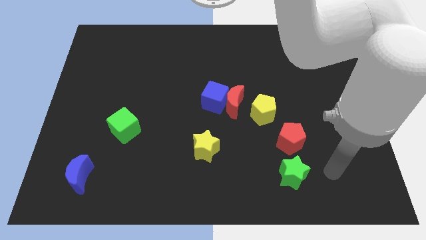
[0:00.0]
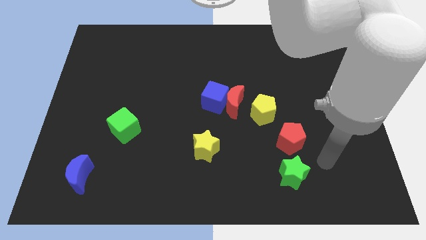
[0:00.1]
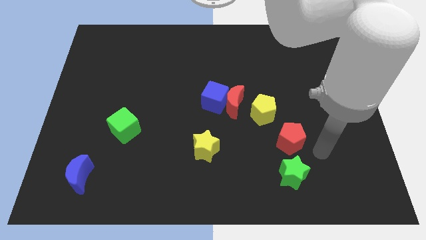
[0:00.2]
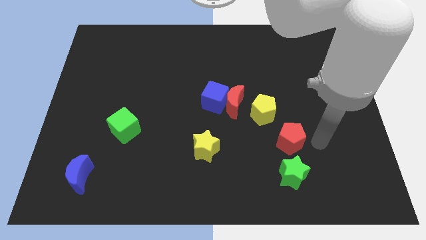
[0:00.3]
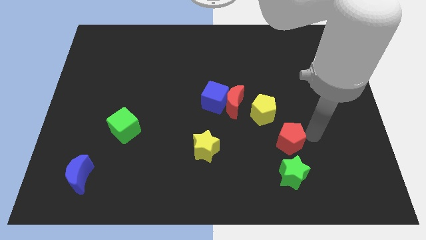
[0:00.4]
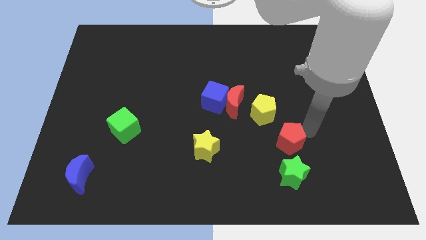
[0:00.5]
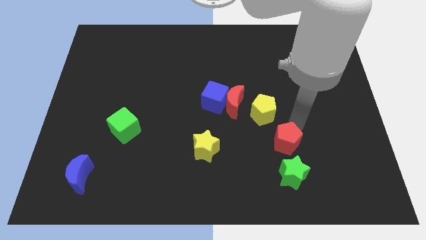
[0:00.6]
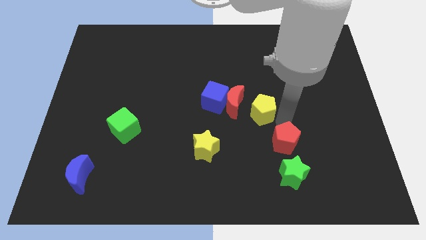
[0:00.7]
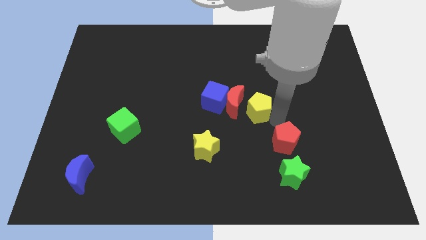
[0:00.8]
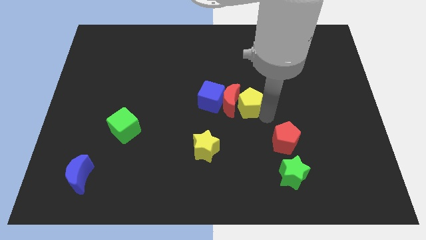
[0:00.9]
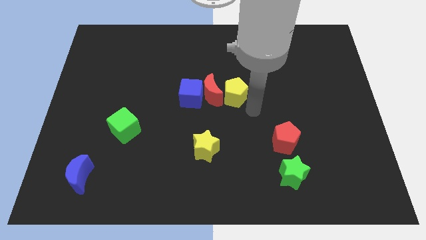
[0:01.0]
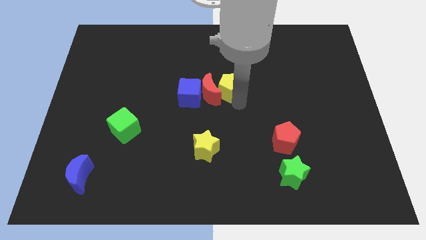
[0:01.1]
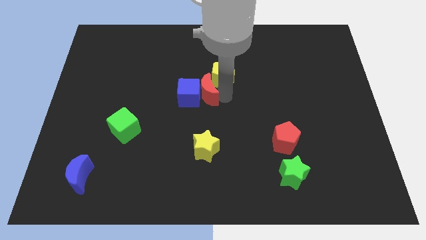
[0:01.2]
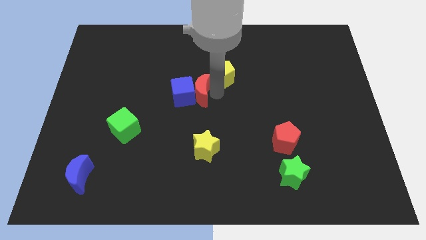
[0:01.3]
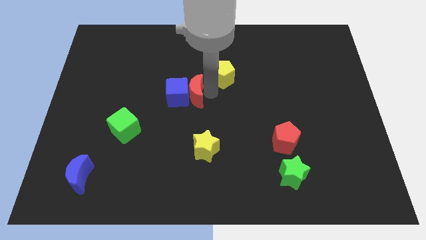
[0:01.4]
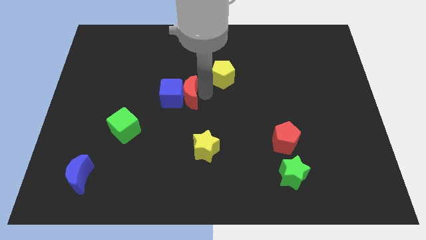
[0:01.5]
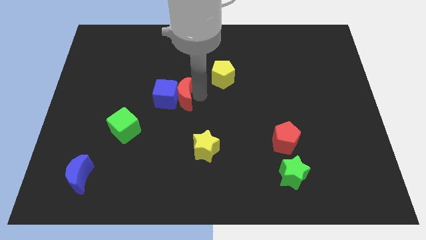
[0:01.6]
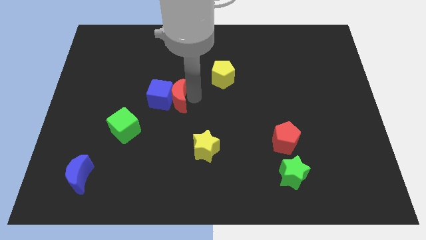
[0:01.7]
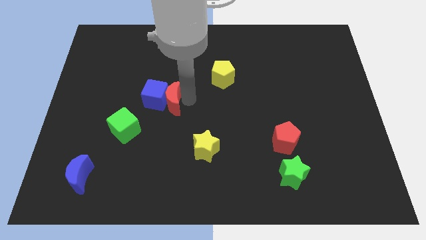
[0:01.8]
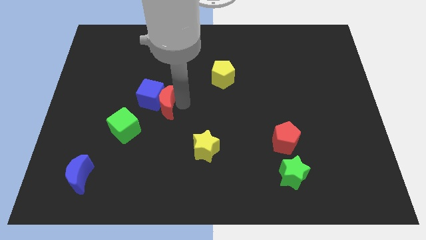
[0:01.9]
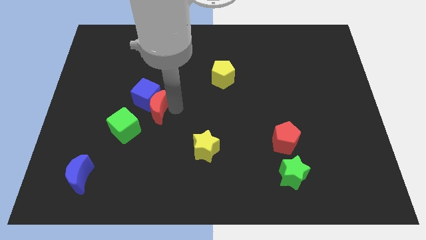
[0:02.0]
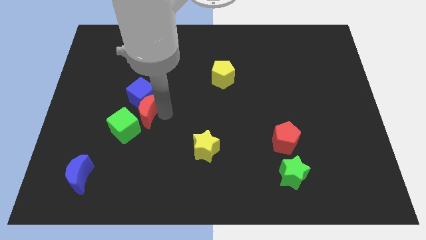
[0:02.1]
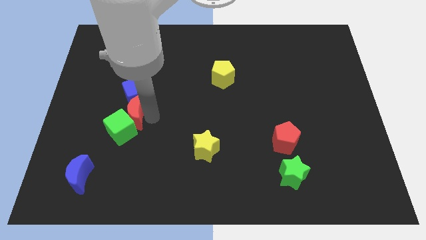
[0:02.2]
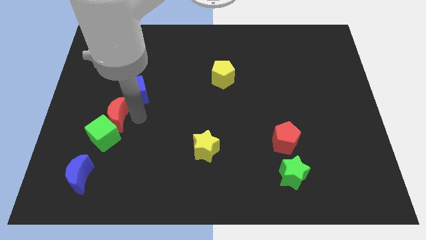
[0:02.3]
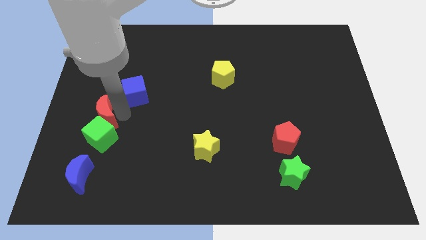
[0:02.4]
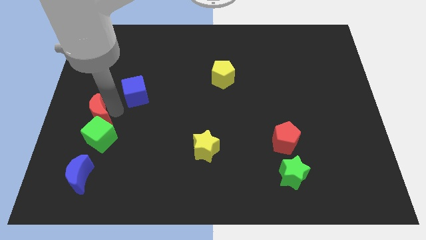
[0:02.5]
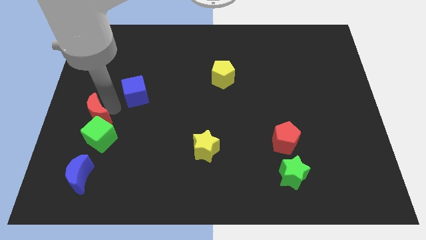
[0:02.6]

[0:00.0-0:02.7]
separate the blue cube from the red moon

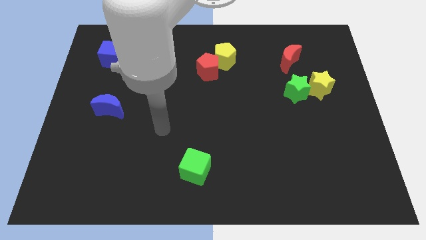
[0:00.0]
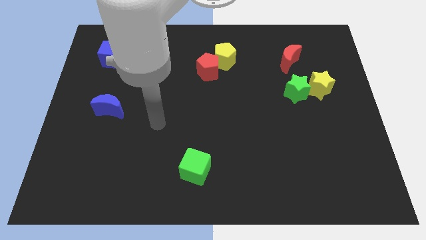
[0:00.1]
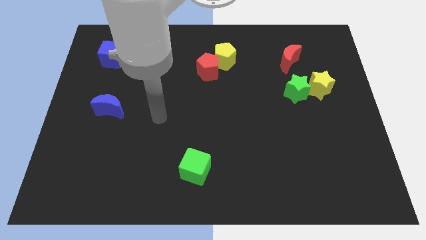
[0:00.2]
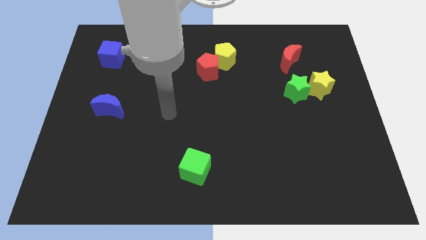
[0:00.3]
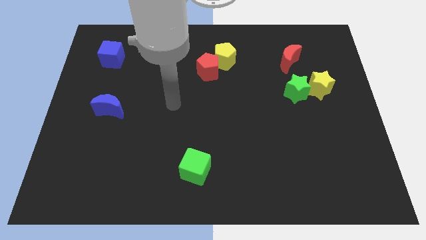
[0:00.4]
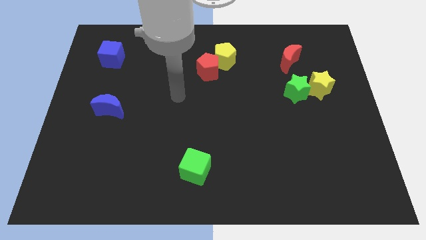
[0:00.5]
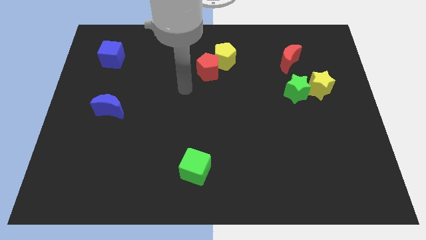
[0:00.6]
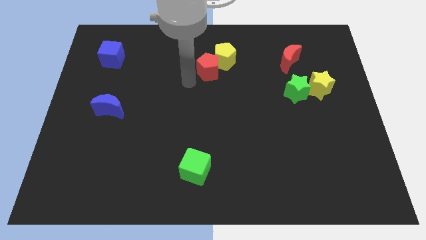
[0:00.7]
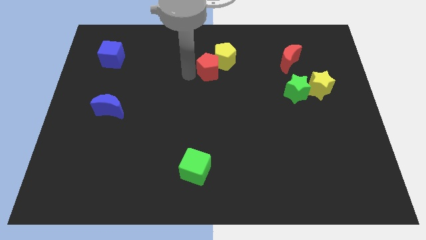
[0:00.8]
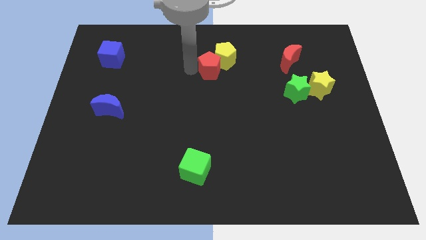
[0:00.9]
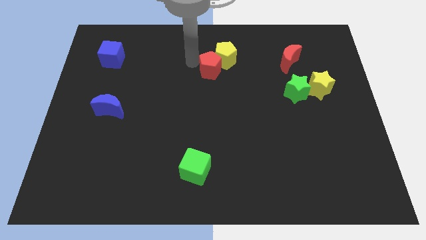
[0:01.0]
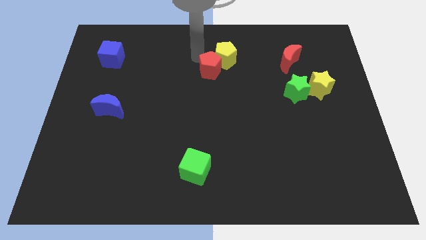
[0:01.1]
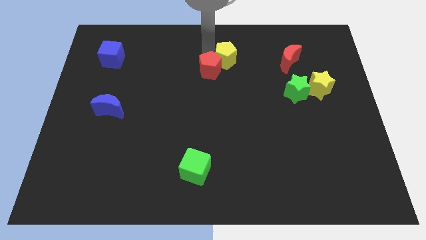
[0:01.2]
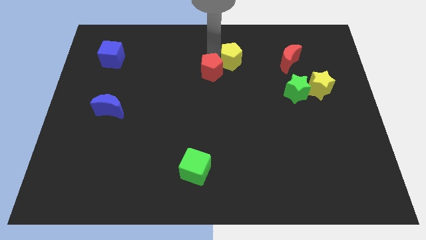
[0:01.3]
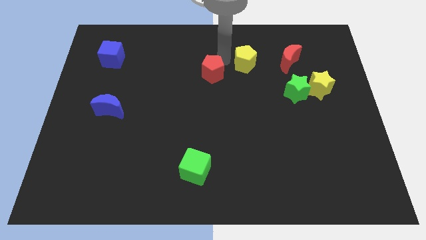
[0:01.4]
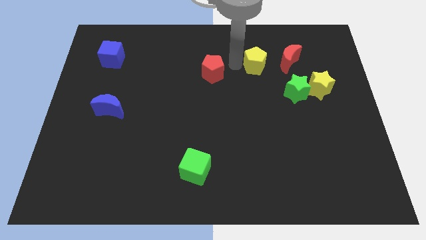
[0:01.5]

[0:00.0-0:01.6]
move the red pentagon away from the yellow pentagon

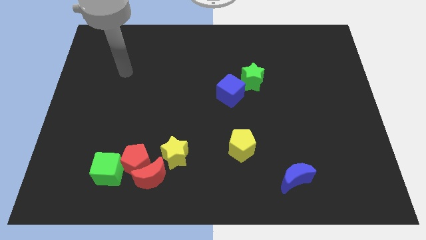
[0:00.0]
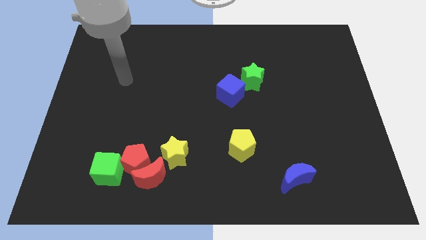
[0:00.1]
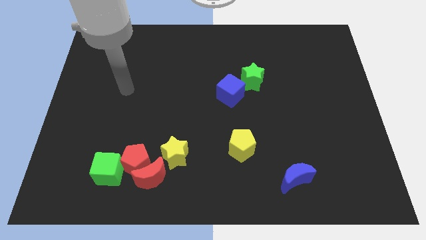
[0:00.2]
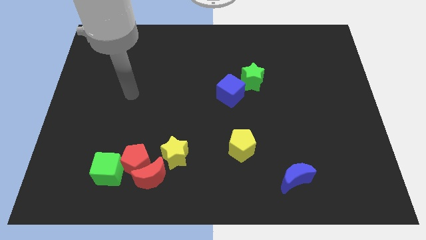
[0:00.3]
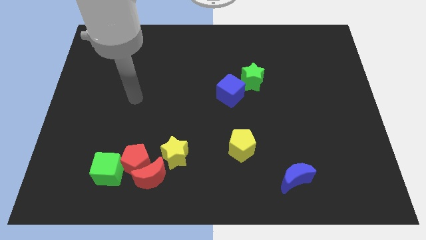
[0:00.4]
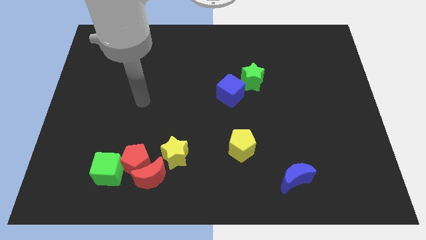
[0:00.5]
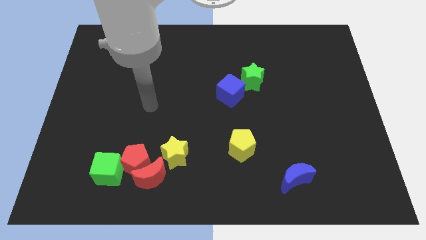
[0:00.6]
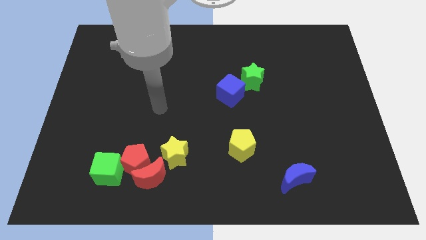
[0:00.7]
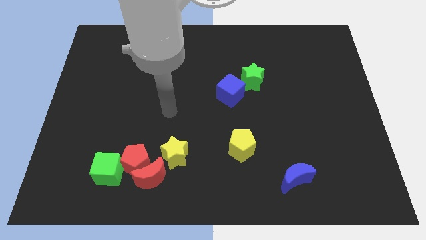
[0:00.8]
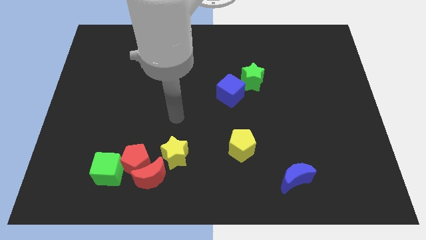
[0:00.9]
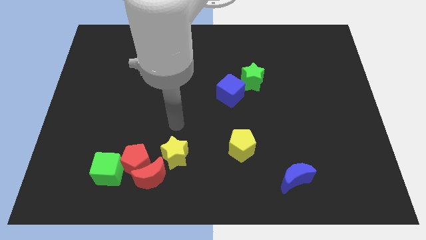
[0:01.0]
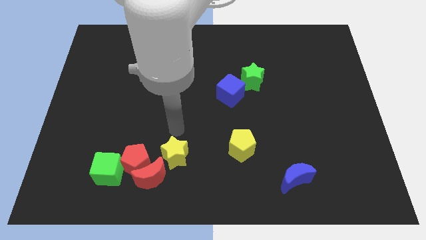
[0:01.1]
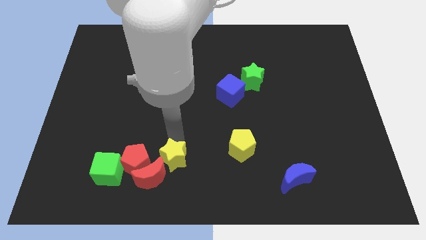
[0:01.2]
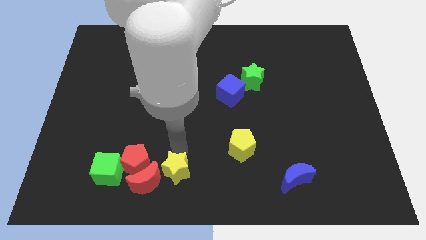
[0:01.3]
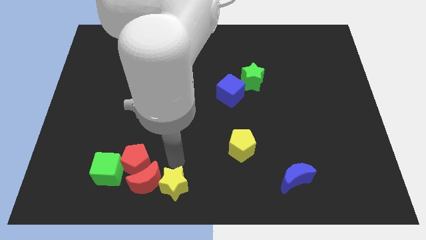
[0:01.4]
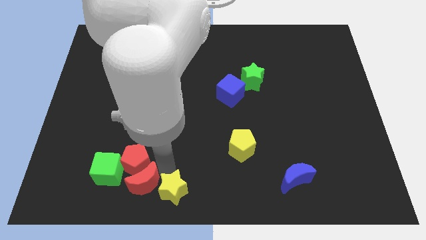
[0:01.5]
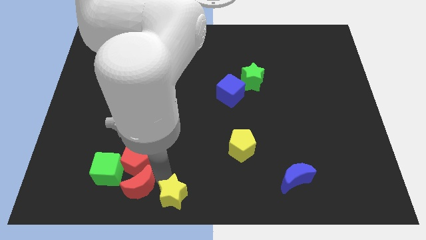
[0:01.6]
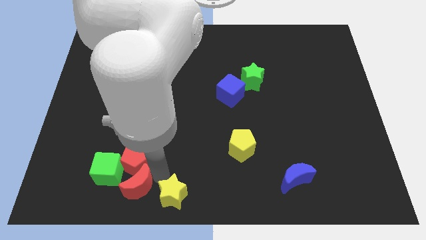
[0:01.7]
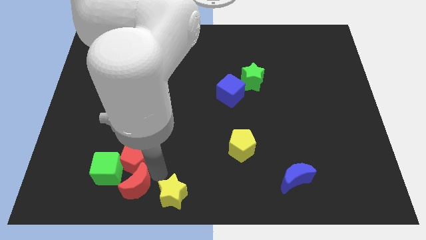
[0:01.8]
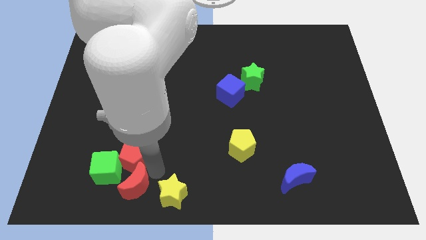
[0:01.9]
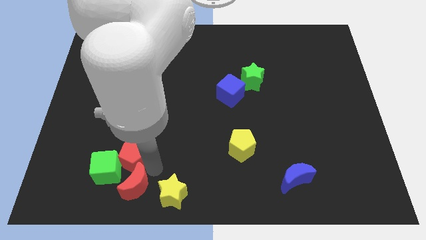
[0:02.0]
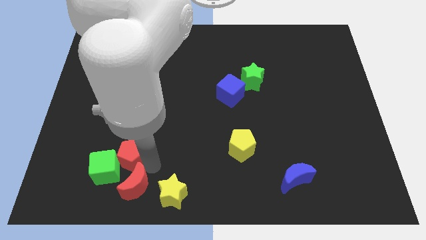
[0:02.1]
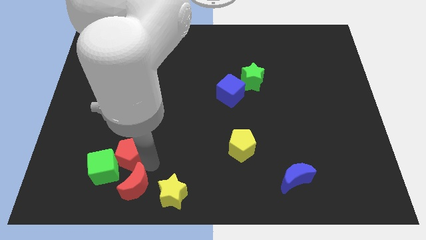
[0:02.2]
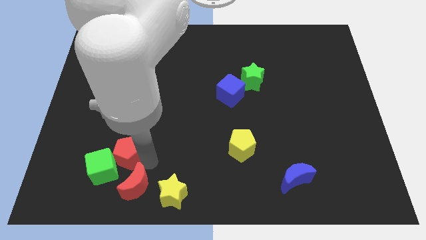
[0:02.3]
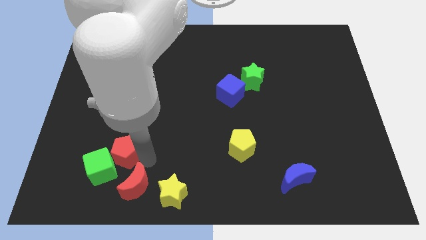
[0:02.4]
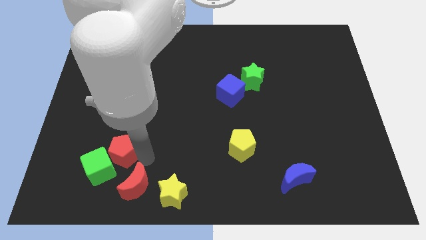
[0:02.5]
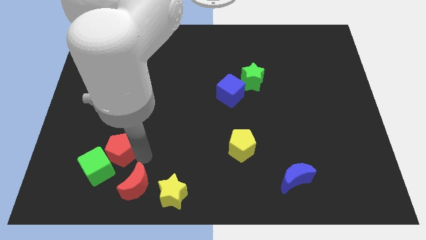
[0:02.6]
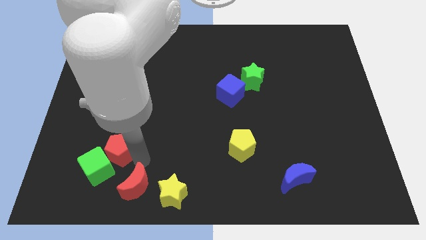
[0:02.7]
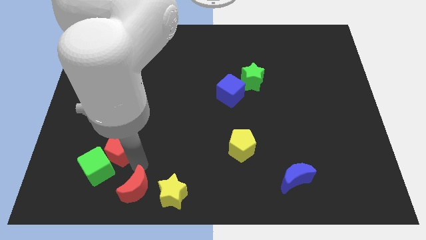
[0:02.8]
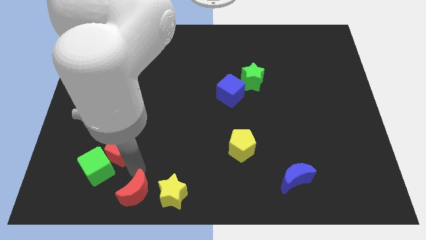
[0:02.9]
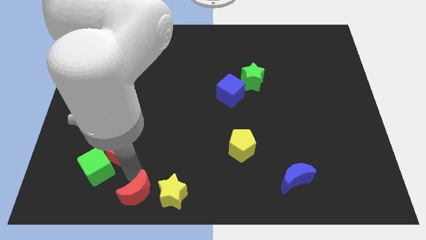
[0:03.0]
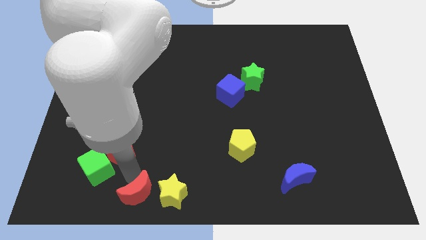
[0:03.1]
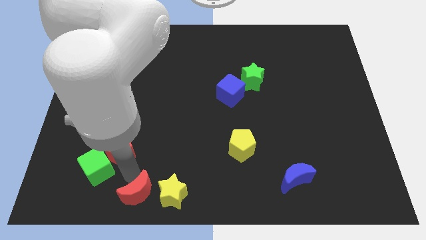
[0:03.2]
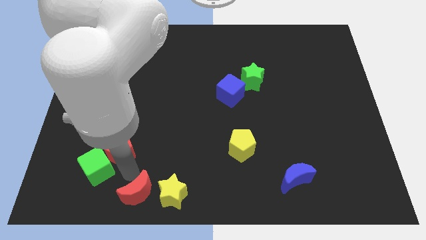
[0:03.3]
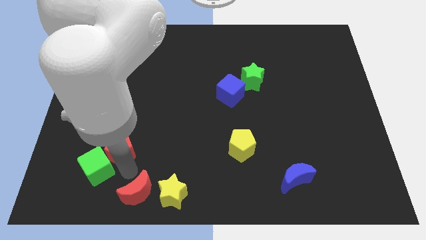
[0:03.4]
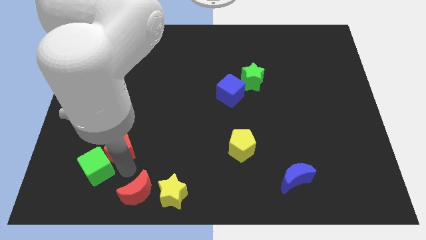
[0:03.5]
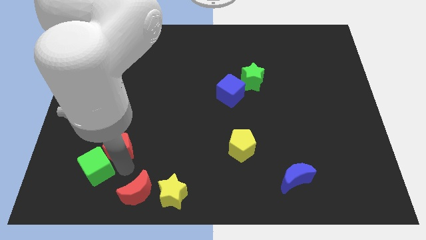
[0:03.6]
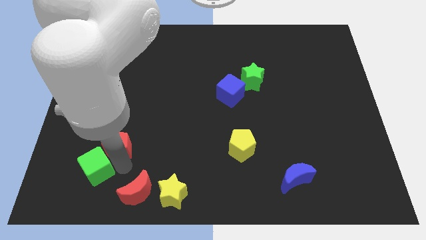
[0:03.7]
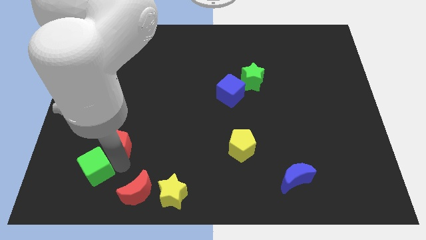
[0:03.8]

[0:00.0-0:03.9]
pull the red pentagon apart from the red moon, green cube, and yellow star

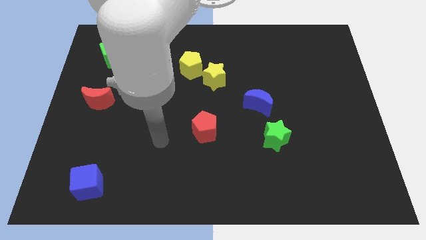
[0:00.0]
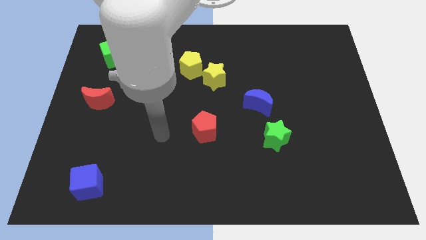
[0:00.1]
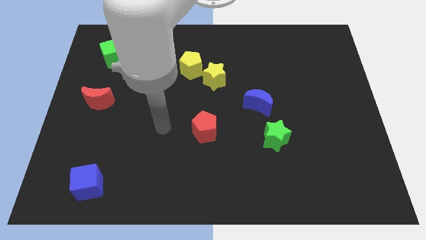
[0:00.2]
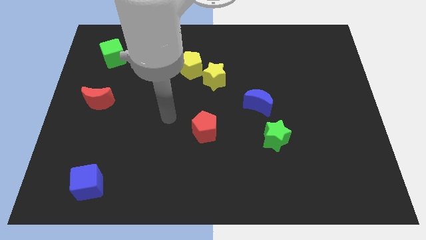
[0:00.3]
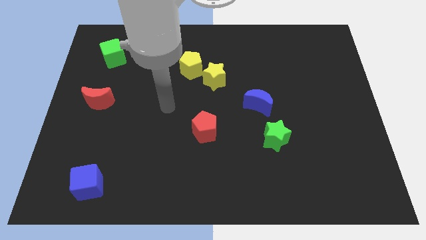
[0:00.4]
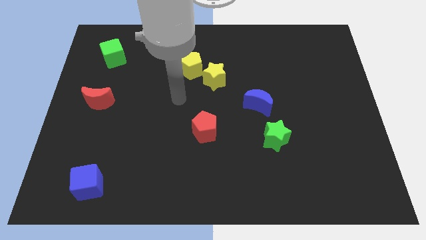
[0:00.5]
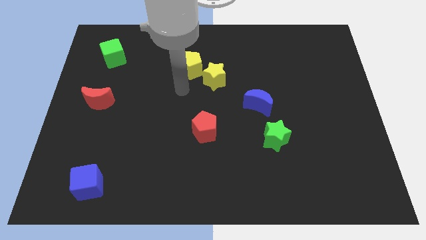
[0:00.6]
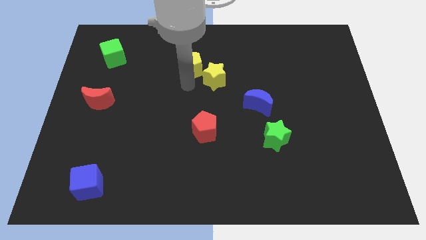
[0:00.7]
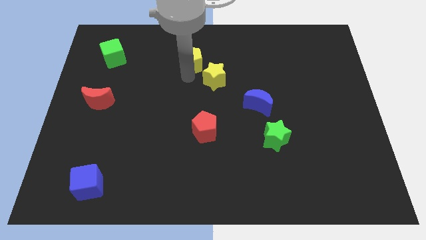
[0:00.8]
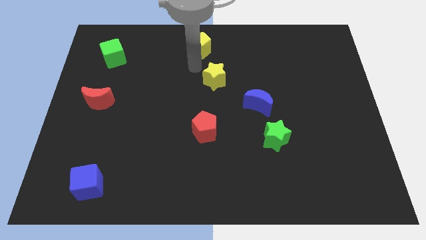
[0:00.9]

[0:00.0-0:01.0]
pull the yellow star apart from the yellow pentagon
